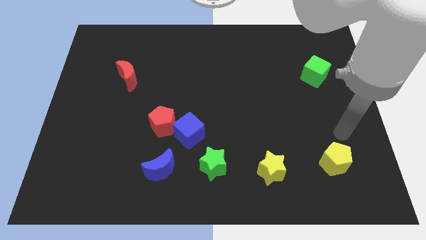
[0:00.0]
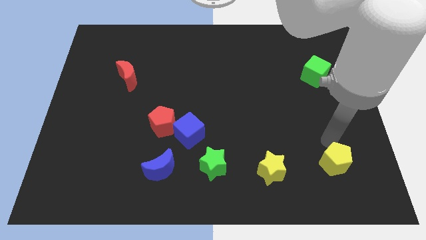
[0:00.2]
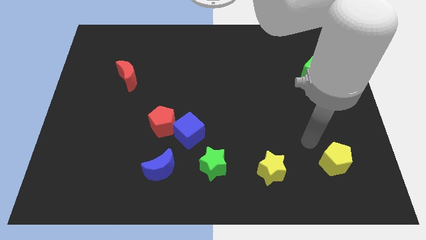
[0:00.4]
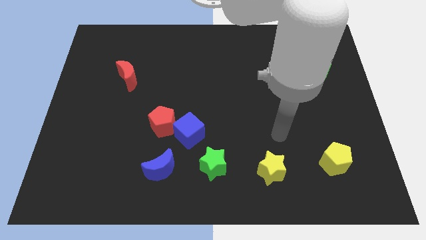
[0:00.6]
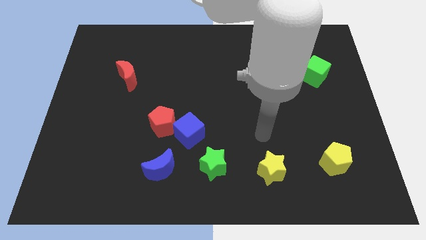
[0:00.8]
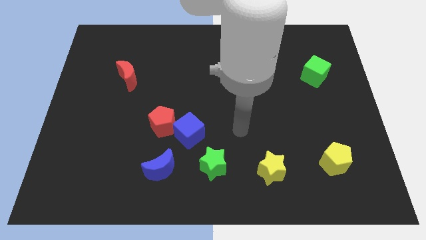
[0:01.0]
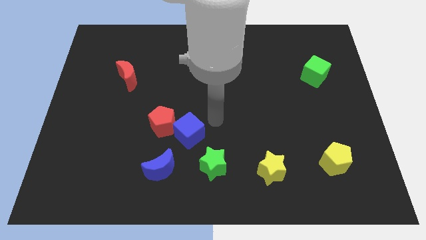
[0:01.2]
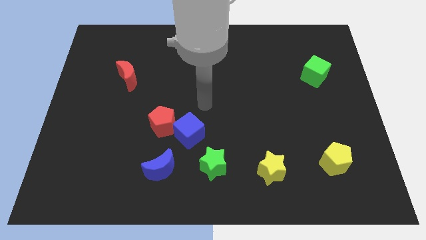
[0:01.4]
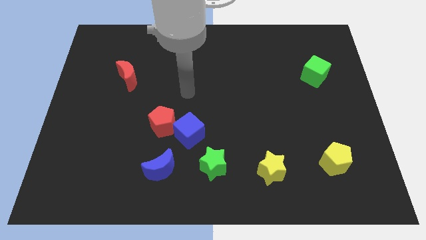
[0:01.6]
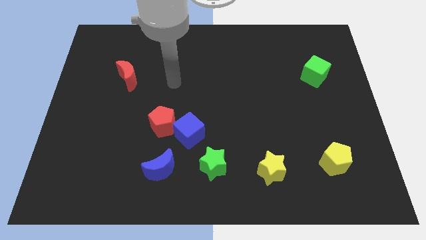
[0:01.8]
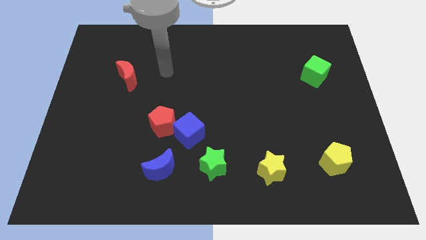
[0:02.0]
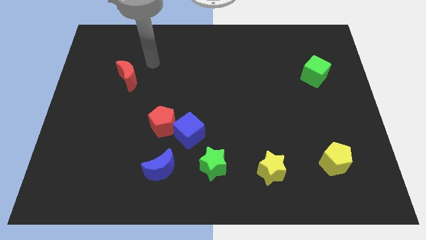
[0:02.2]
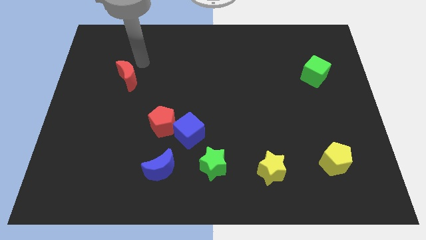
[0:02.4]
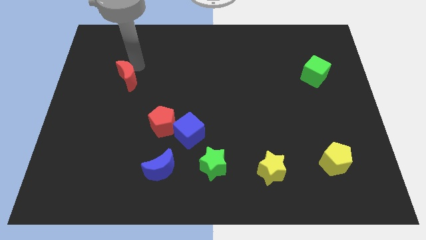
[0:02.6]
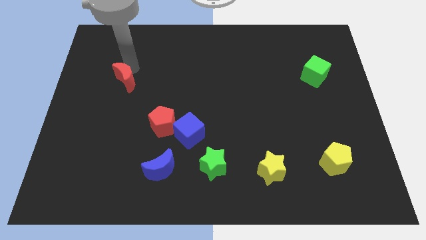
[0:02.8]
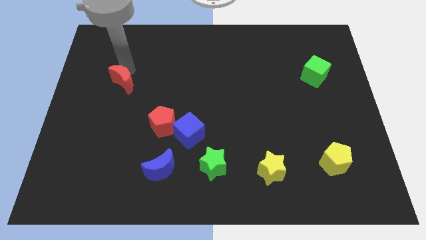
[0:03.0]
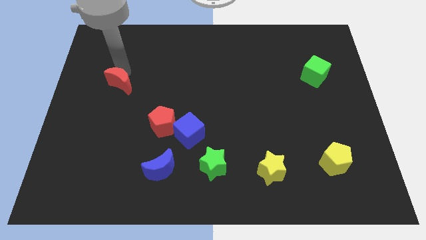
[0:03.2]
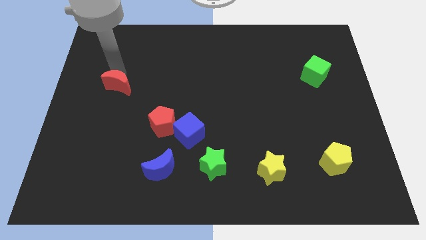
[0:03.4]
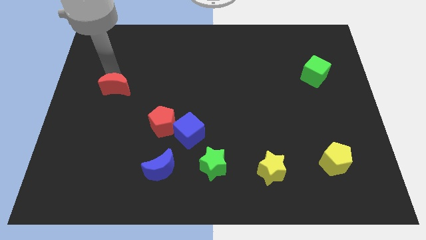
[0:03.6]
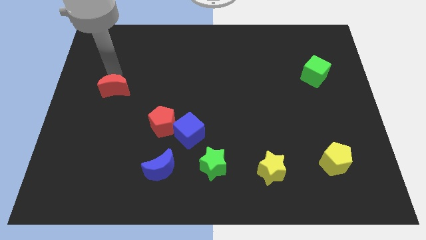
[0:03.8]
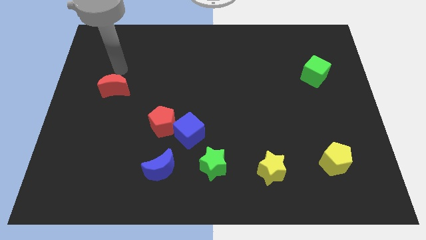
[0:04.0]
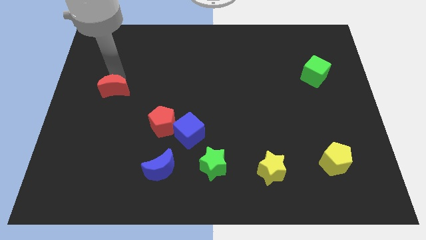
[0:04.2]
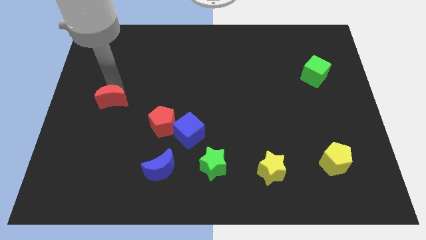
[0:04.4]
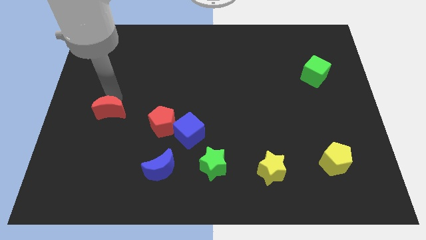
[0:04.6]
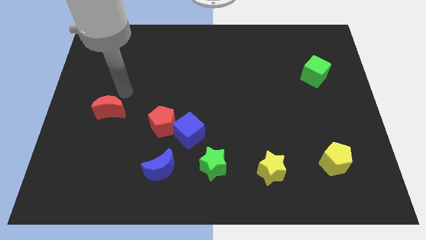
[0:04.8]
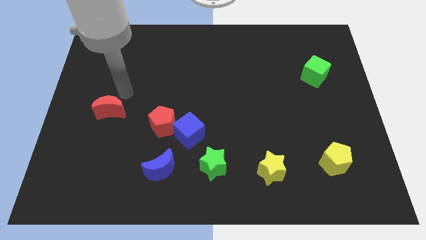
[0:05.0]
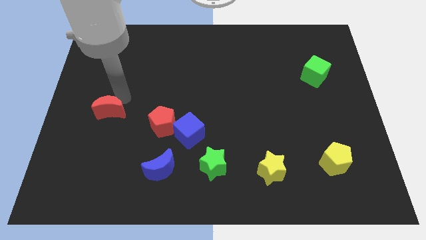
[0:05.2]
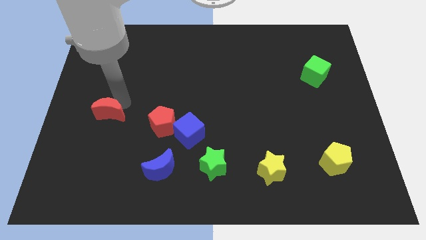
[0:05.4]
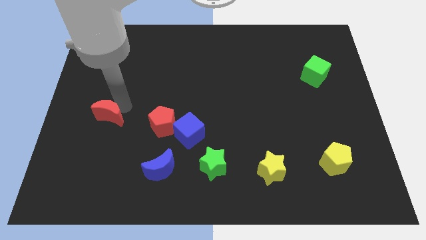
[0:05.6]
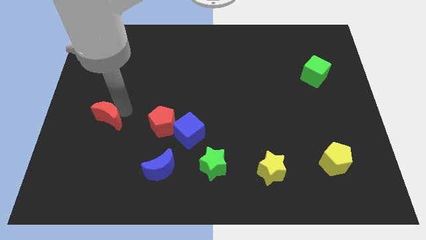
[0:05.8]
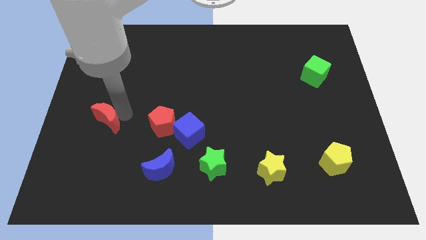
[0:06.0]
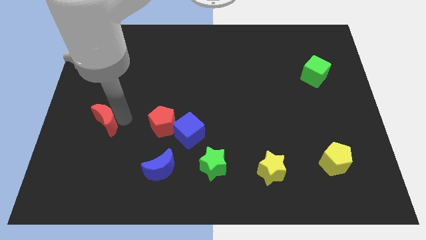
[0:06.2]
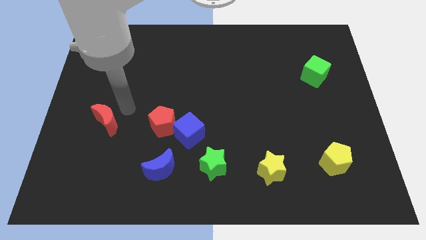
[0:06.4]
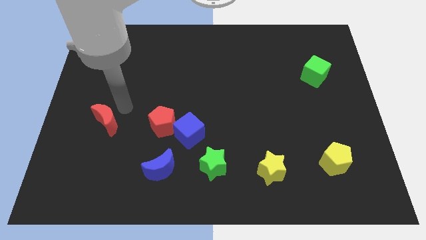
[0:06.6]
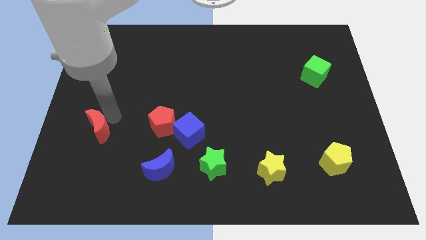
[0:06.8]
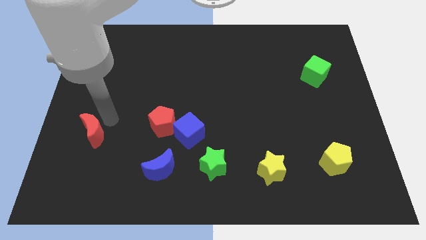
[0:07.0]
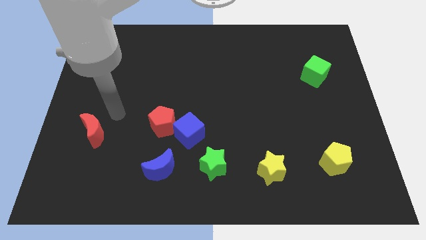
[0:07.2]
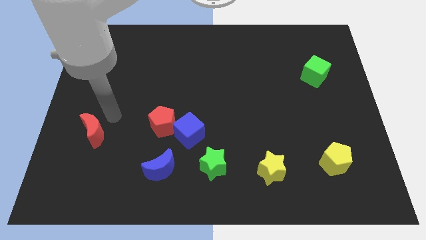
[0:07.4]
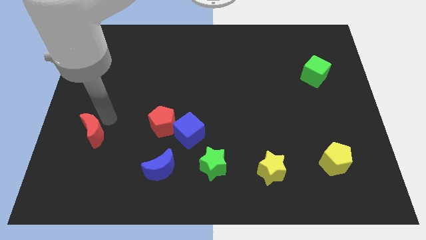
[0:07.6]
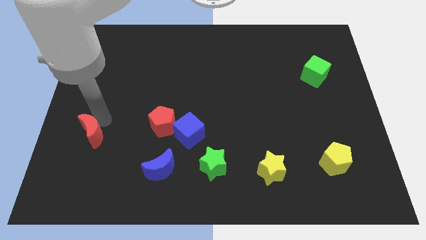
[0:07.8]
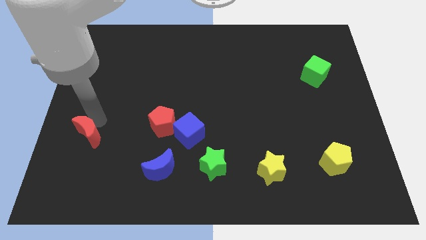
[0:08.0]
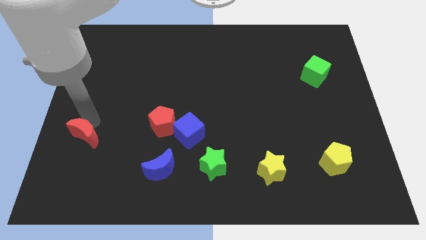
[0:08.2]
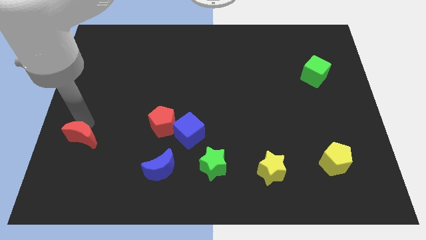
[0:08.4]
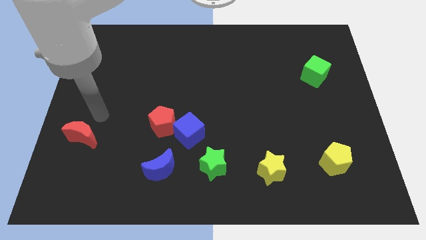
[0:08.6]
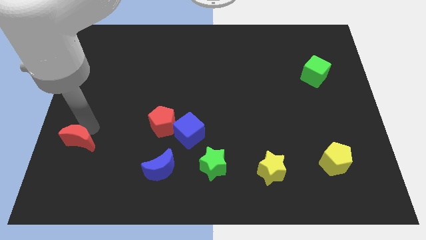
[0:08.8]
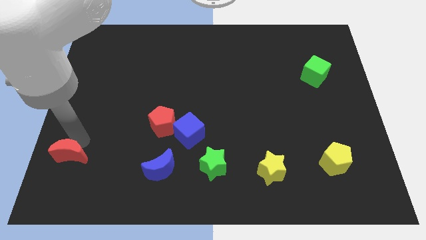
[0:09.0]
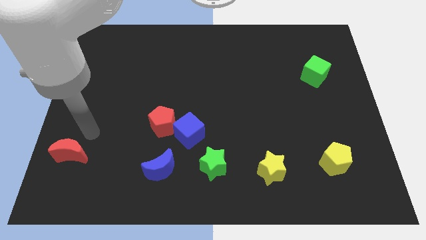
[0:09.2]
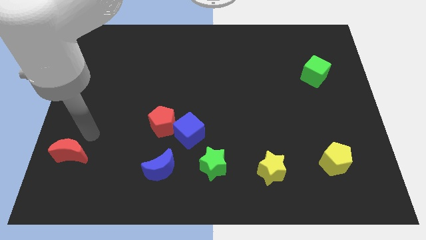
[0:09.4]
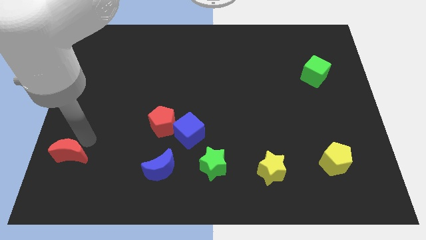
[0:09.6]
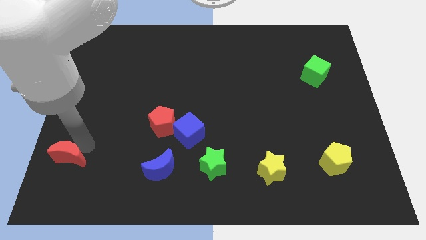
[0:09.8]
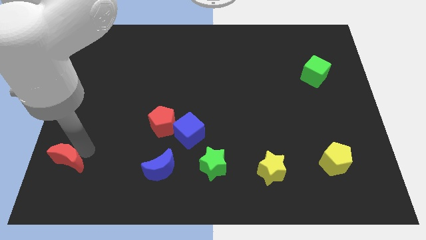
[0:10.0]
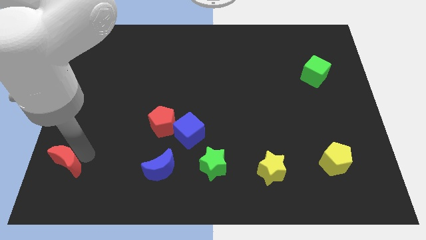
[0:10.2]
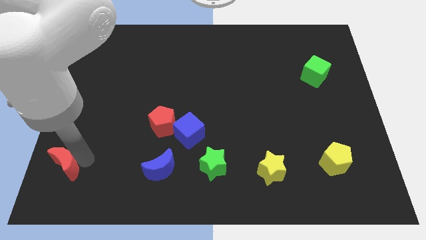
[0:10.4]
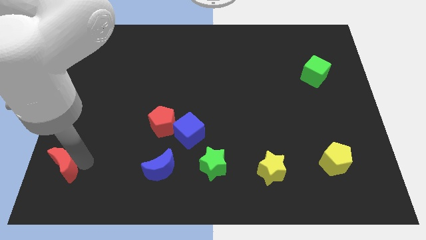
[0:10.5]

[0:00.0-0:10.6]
put the red moon to the bottom left

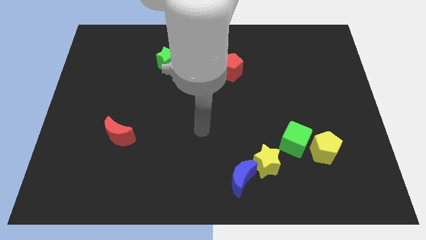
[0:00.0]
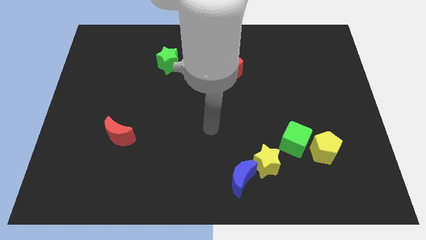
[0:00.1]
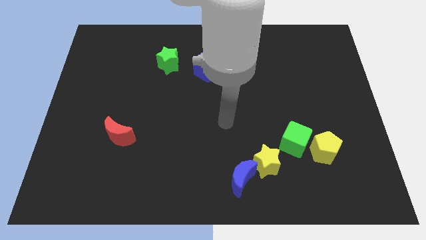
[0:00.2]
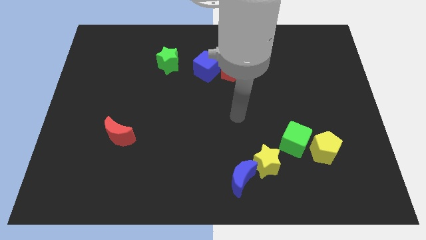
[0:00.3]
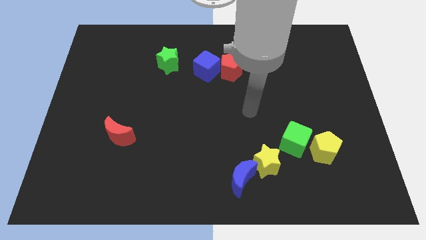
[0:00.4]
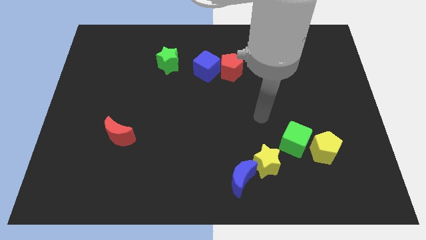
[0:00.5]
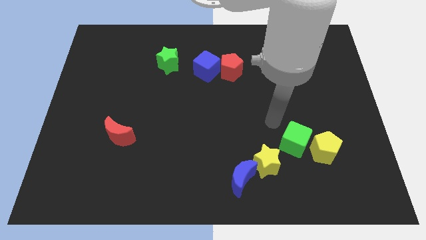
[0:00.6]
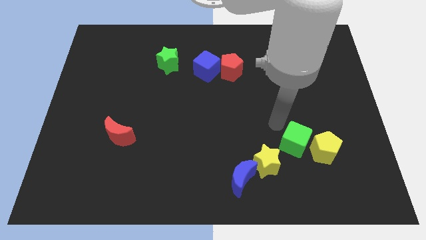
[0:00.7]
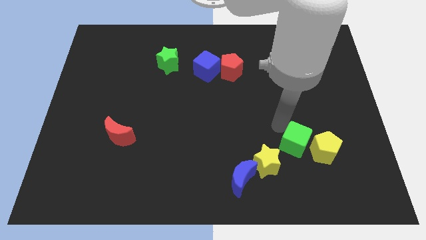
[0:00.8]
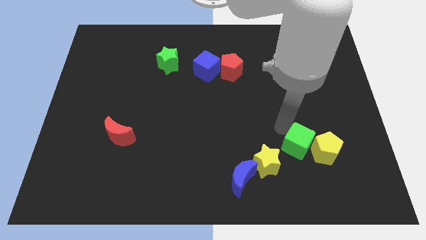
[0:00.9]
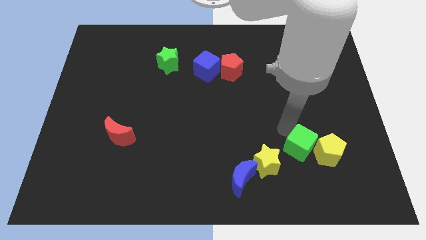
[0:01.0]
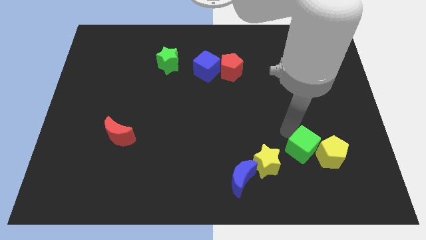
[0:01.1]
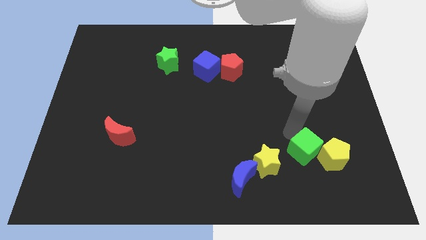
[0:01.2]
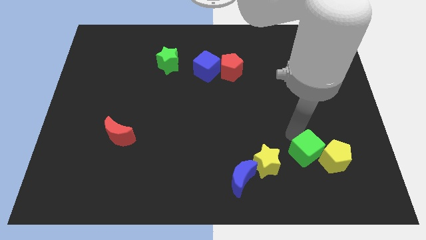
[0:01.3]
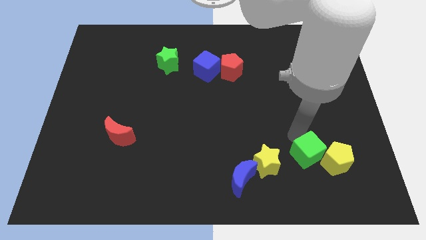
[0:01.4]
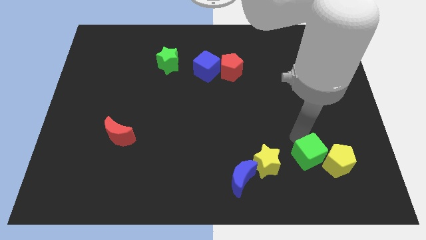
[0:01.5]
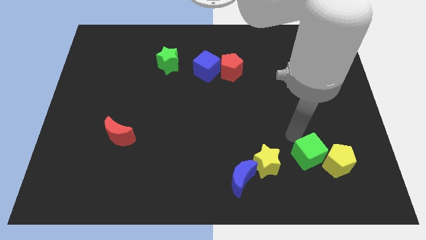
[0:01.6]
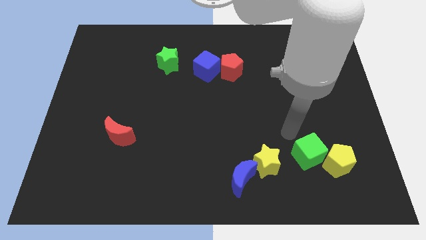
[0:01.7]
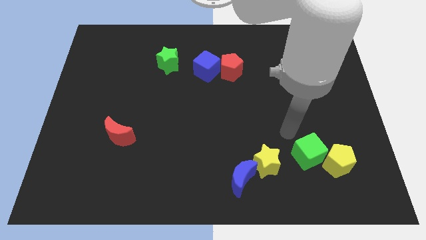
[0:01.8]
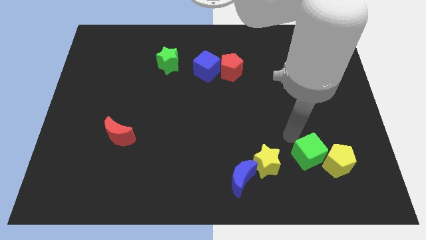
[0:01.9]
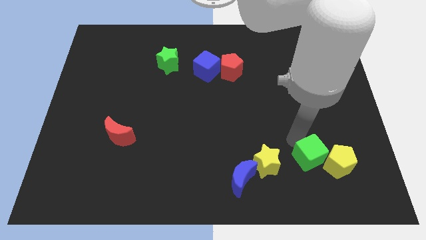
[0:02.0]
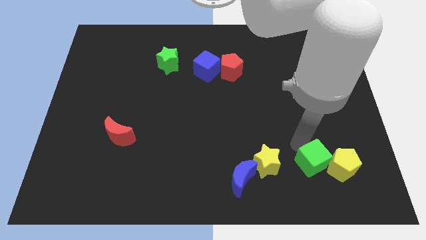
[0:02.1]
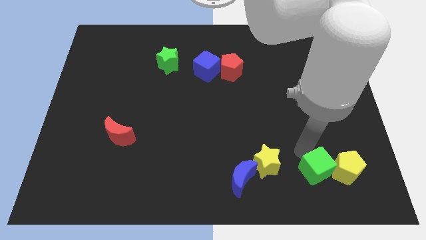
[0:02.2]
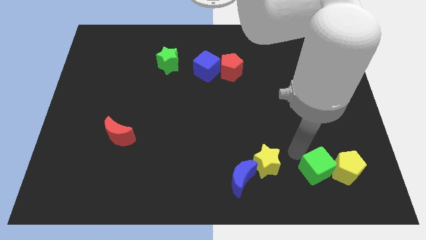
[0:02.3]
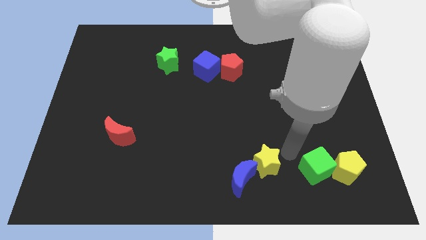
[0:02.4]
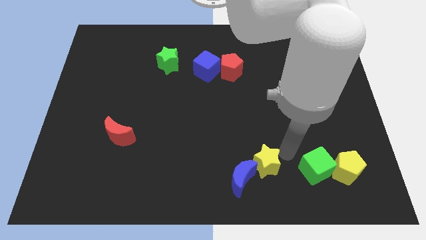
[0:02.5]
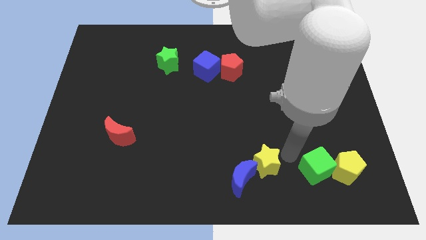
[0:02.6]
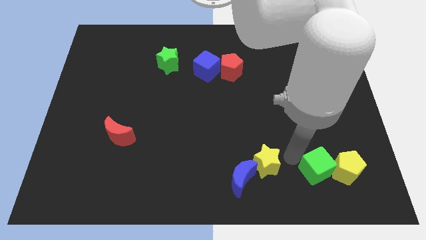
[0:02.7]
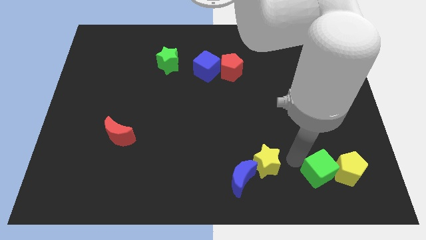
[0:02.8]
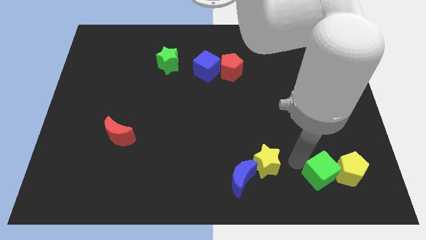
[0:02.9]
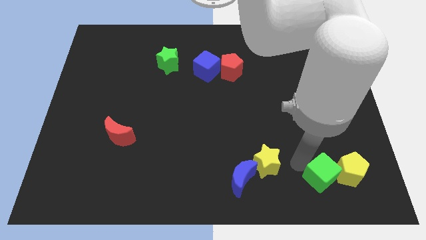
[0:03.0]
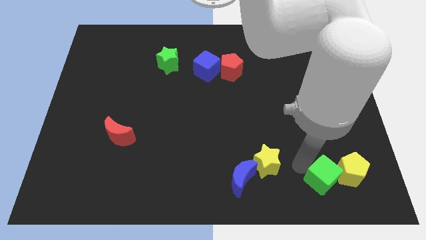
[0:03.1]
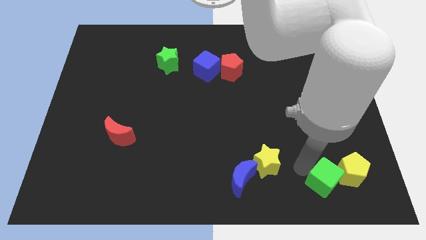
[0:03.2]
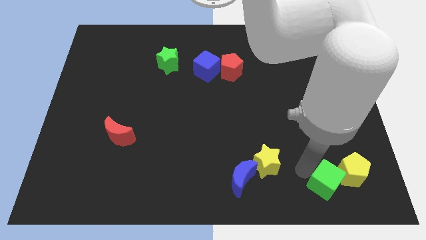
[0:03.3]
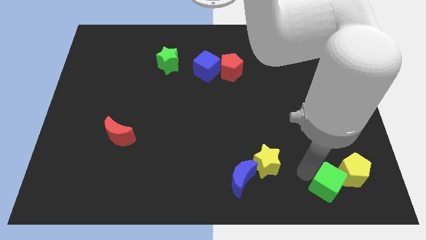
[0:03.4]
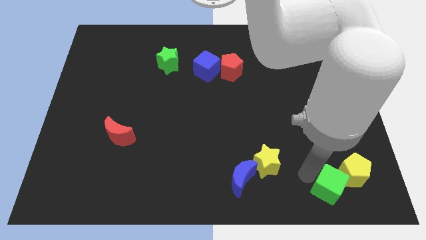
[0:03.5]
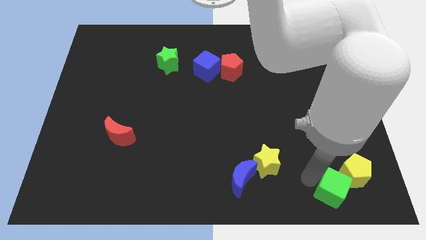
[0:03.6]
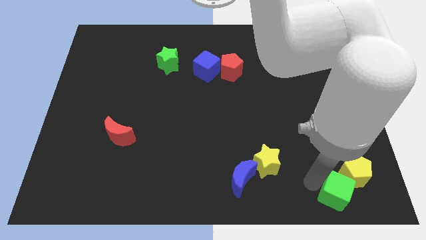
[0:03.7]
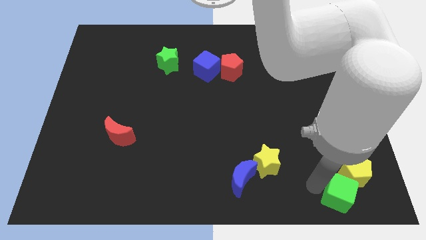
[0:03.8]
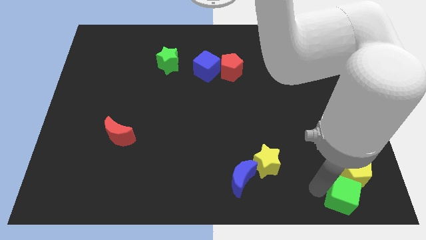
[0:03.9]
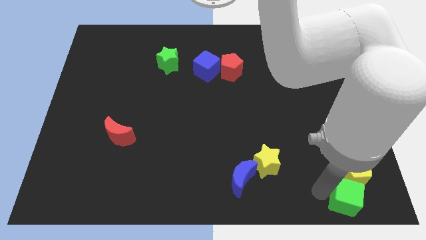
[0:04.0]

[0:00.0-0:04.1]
push the green cube to the lower right corner
